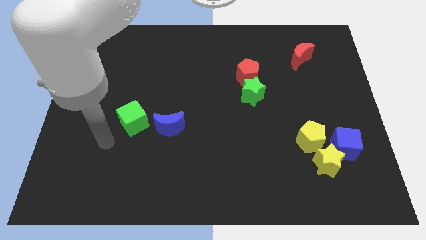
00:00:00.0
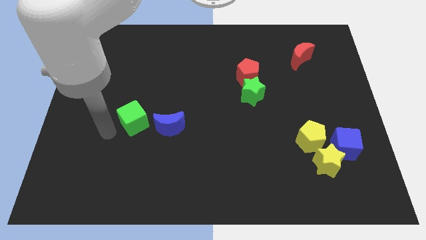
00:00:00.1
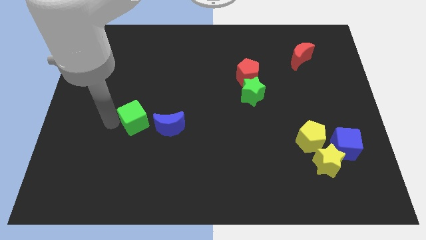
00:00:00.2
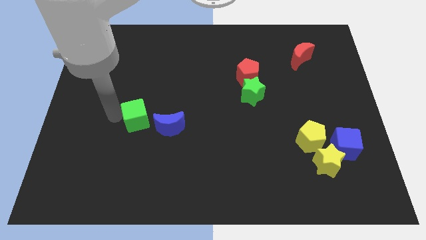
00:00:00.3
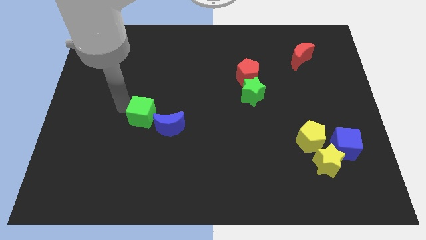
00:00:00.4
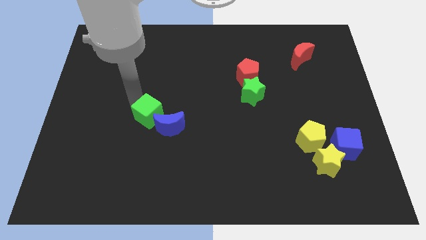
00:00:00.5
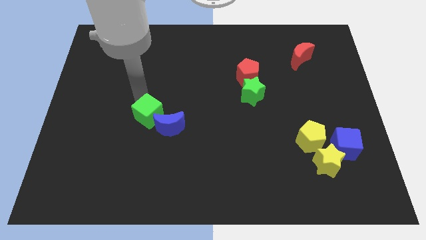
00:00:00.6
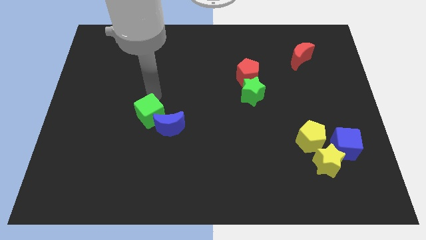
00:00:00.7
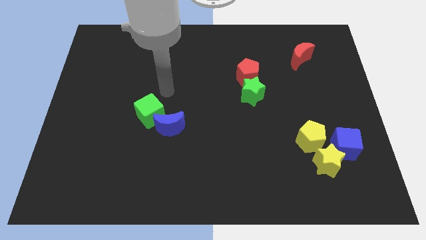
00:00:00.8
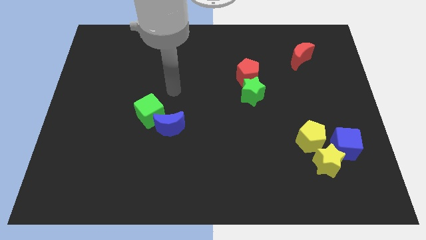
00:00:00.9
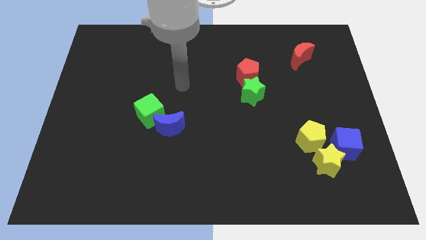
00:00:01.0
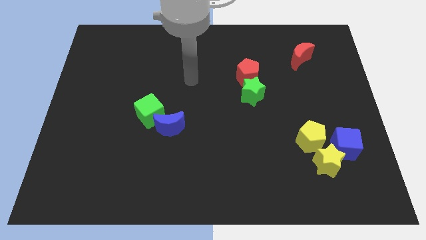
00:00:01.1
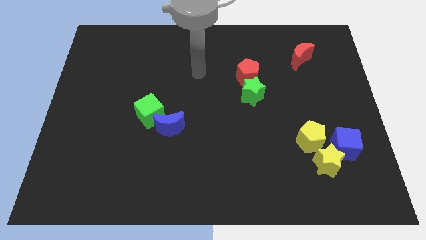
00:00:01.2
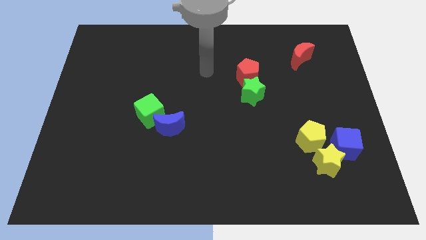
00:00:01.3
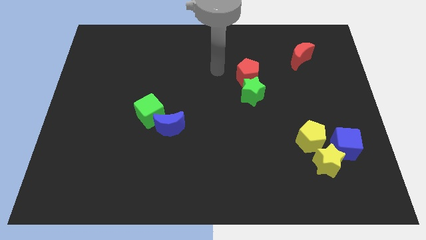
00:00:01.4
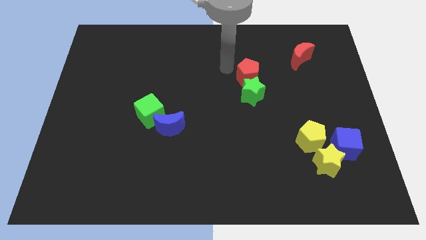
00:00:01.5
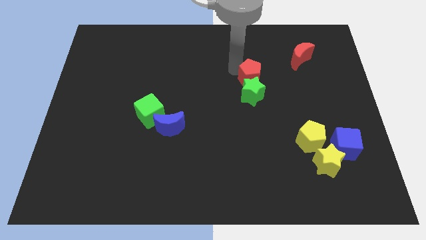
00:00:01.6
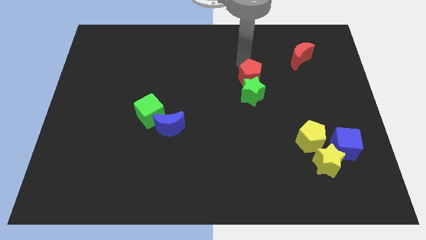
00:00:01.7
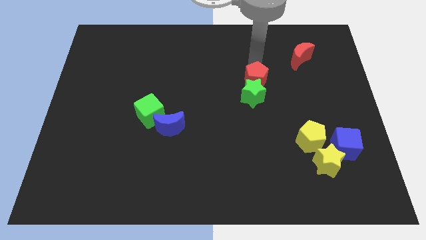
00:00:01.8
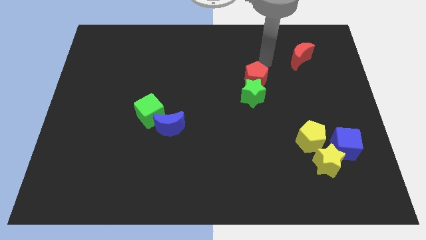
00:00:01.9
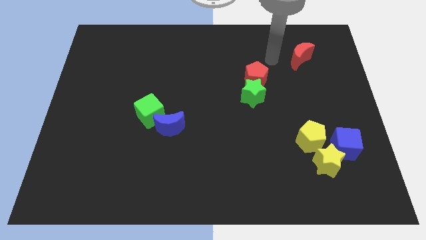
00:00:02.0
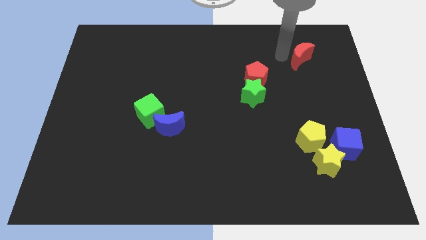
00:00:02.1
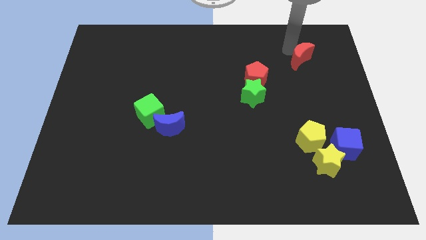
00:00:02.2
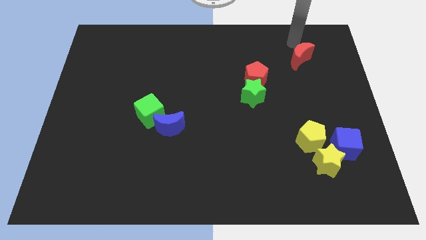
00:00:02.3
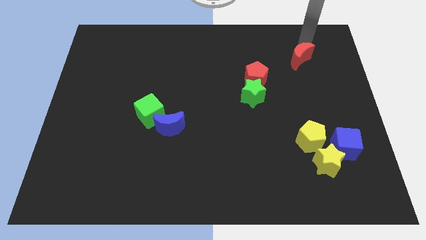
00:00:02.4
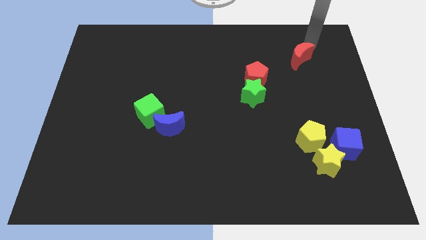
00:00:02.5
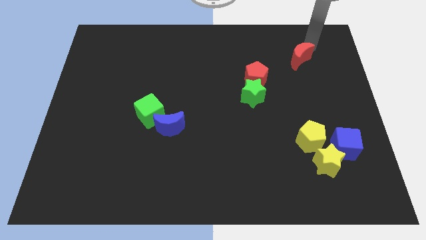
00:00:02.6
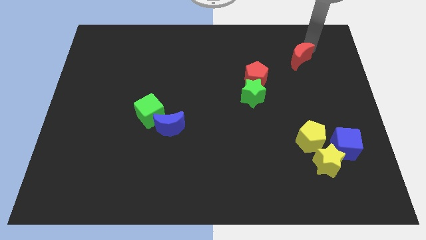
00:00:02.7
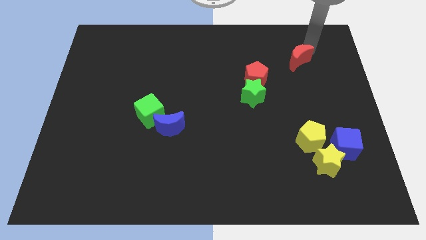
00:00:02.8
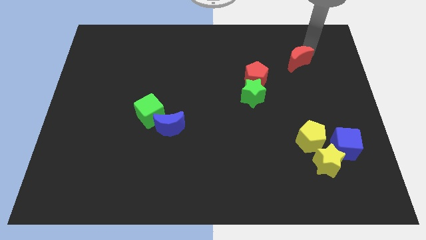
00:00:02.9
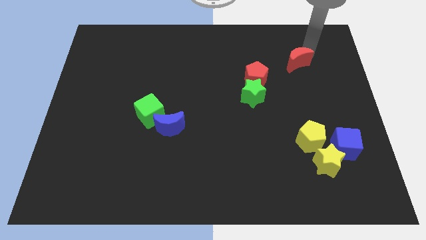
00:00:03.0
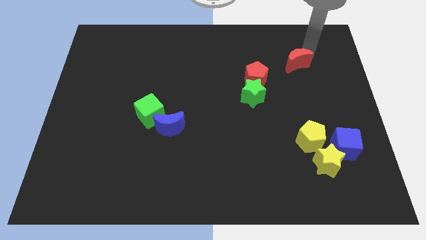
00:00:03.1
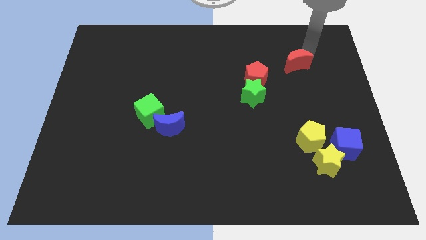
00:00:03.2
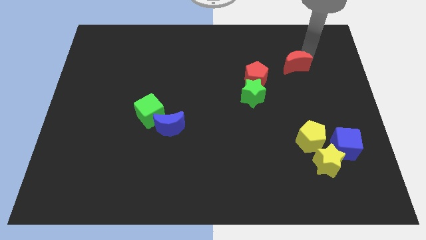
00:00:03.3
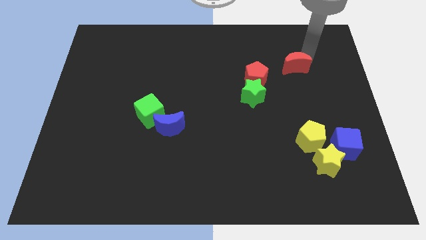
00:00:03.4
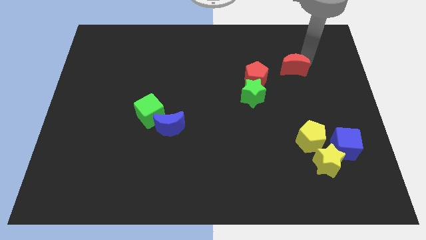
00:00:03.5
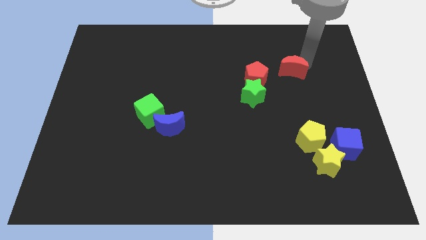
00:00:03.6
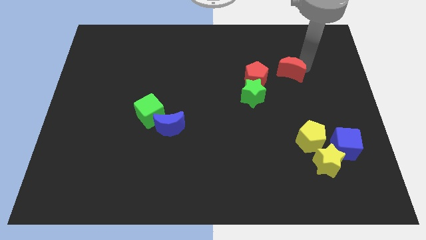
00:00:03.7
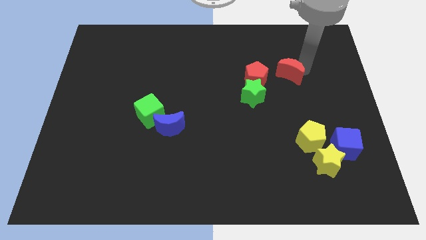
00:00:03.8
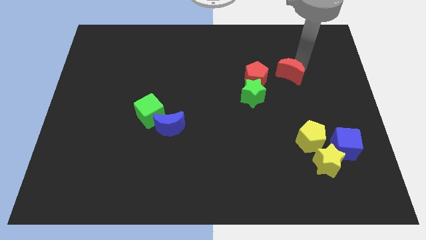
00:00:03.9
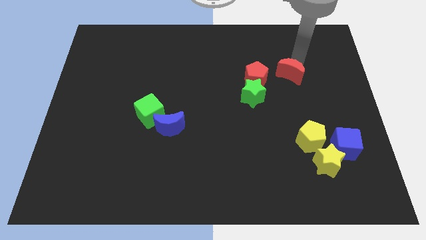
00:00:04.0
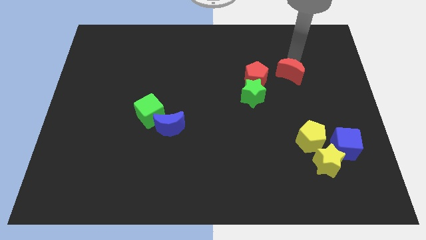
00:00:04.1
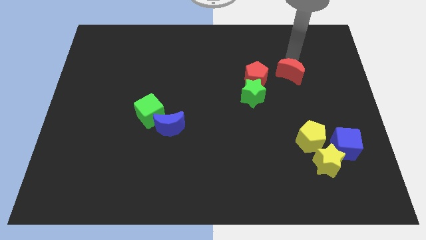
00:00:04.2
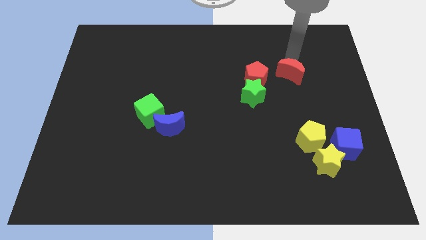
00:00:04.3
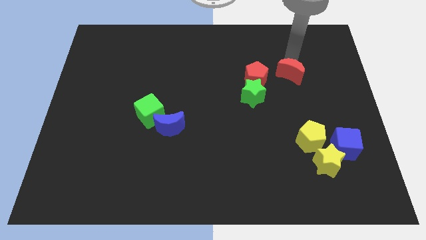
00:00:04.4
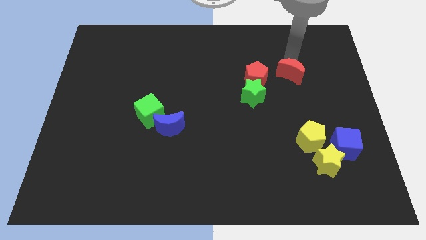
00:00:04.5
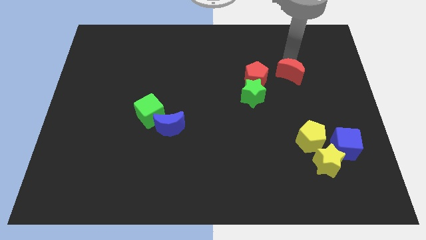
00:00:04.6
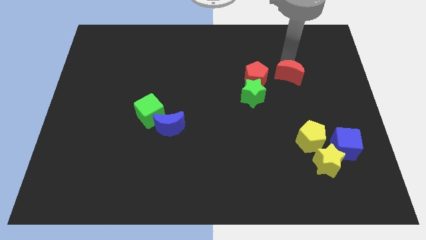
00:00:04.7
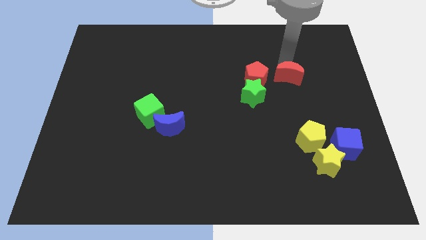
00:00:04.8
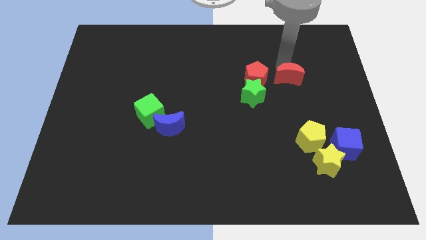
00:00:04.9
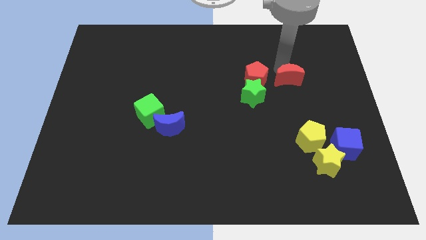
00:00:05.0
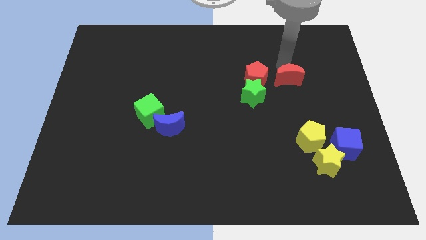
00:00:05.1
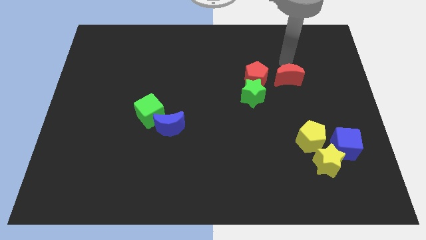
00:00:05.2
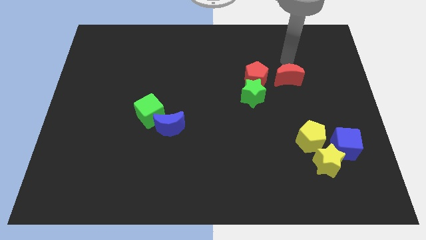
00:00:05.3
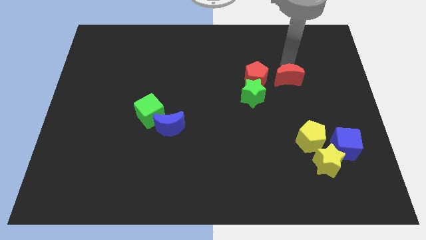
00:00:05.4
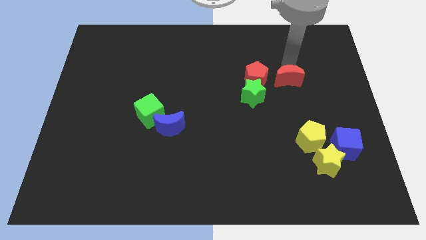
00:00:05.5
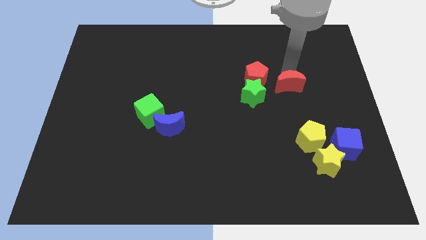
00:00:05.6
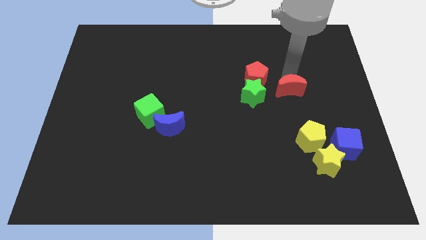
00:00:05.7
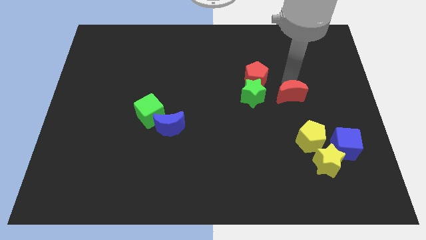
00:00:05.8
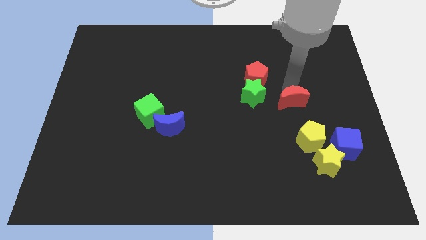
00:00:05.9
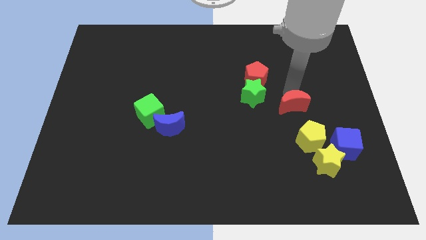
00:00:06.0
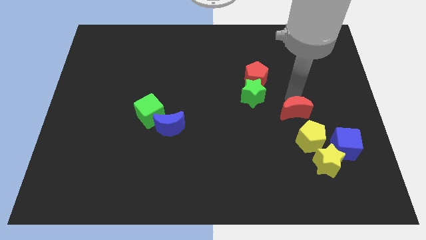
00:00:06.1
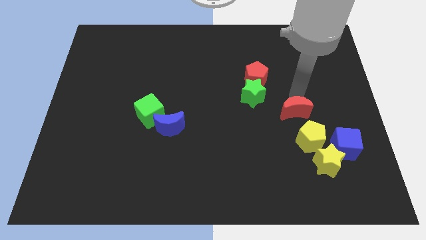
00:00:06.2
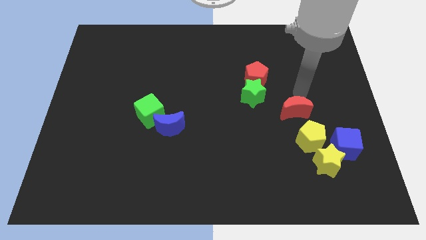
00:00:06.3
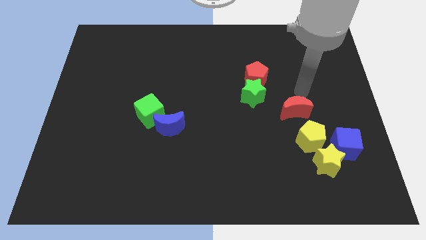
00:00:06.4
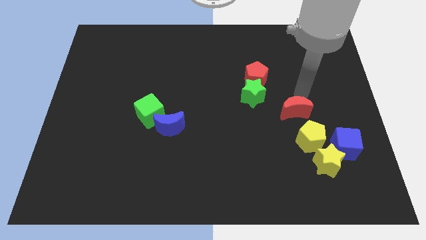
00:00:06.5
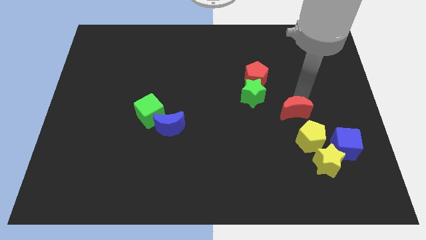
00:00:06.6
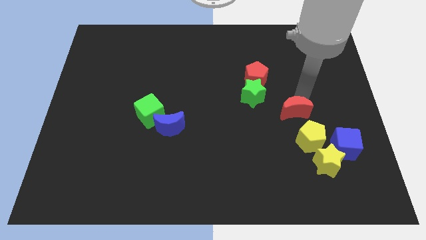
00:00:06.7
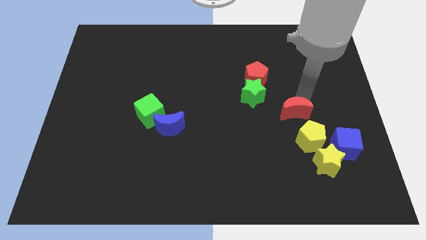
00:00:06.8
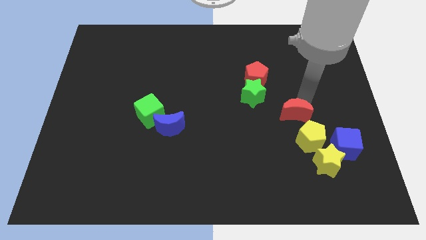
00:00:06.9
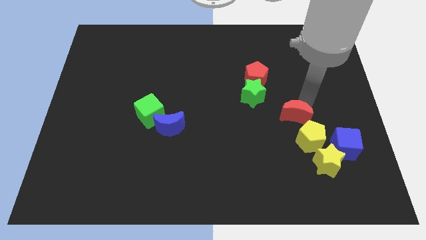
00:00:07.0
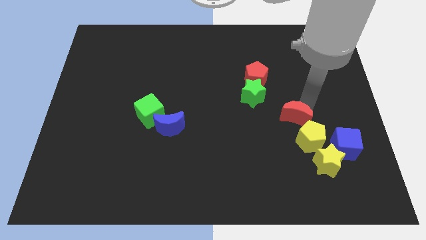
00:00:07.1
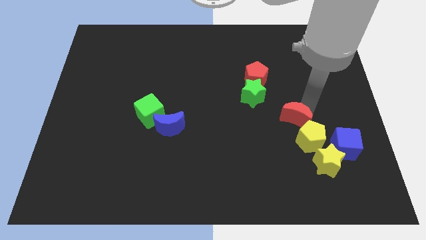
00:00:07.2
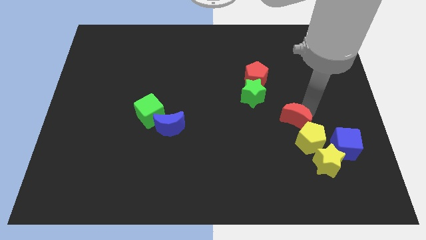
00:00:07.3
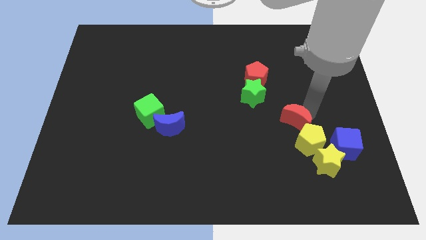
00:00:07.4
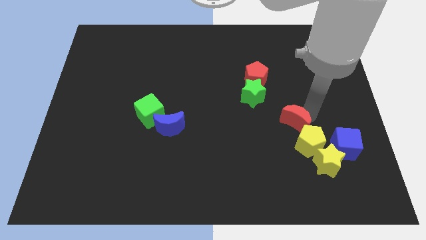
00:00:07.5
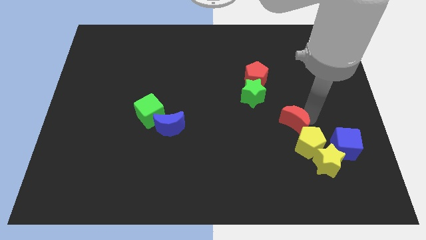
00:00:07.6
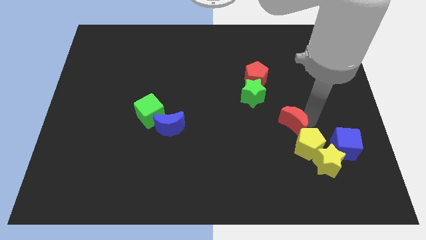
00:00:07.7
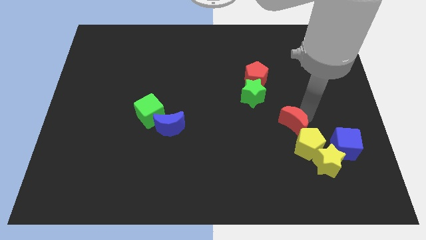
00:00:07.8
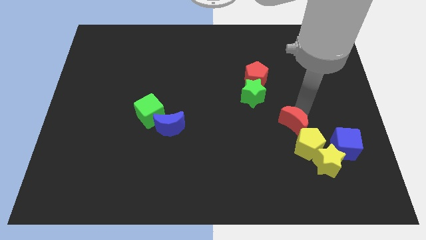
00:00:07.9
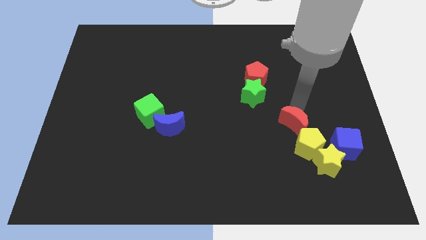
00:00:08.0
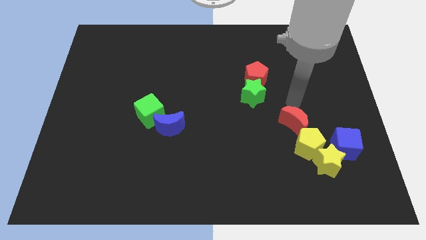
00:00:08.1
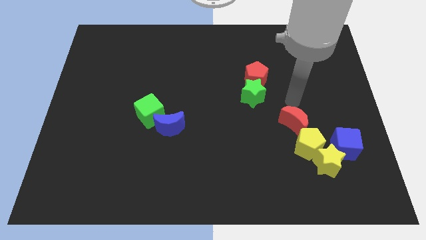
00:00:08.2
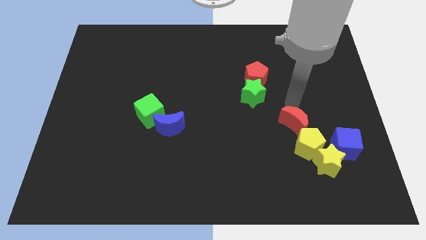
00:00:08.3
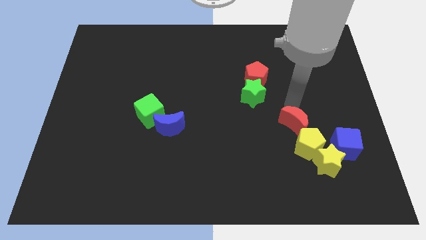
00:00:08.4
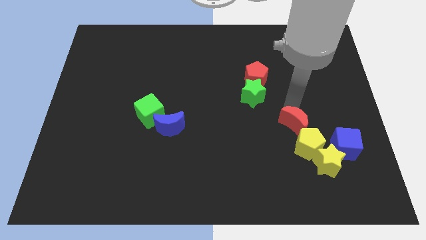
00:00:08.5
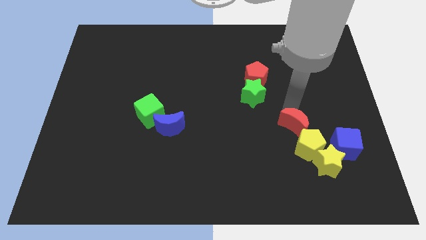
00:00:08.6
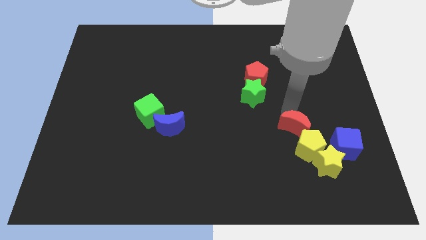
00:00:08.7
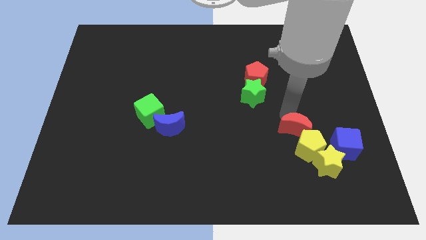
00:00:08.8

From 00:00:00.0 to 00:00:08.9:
move the red moon to the left side of the blue cube
